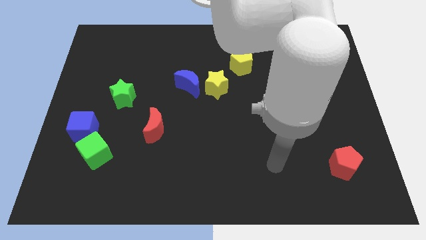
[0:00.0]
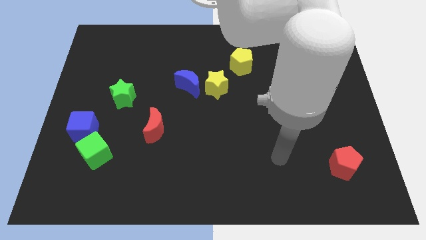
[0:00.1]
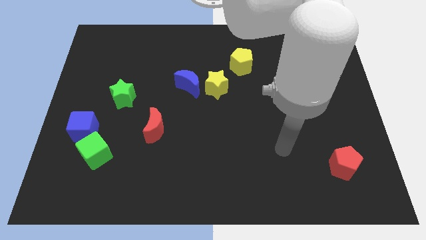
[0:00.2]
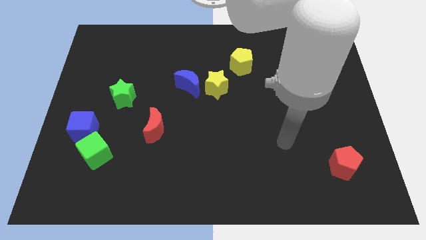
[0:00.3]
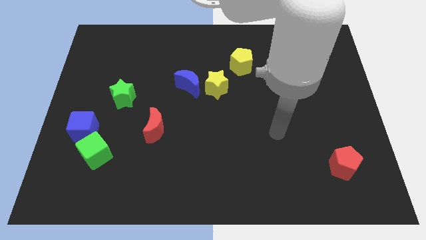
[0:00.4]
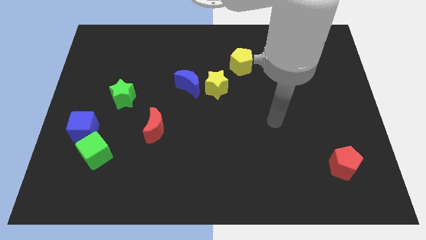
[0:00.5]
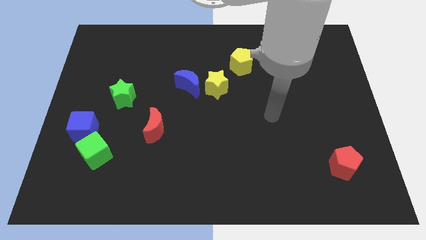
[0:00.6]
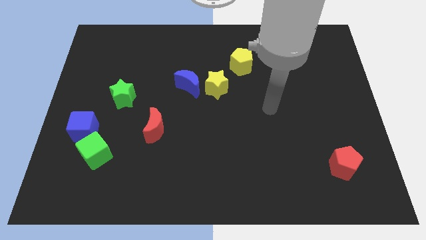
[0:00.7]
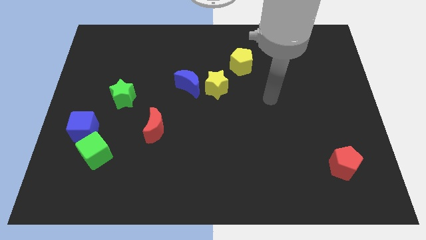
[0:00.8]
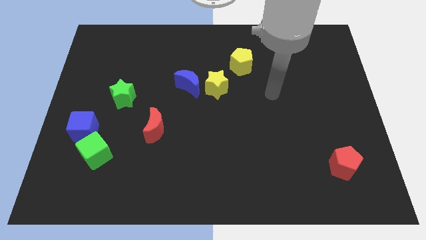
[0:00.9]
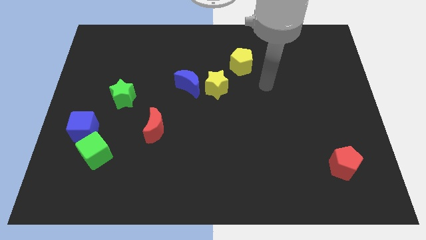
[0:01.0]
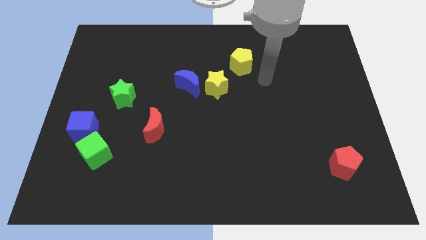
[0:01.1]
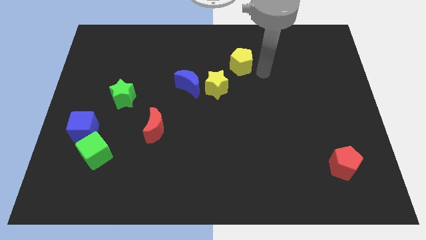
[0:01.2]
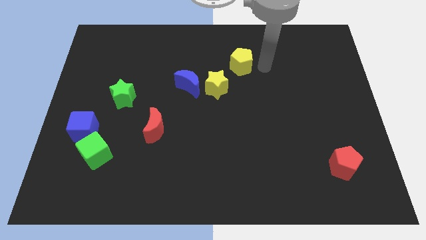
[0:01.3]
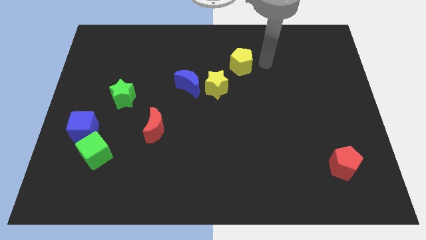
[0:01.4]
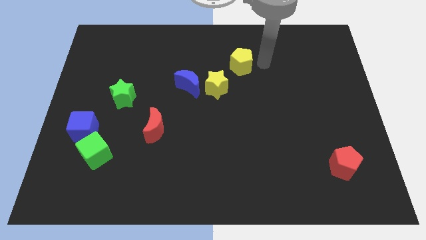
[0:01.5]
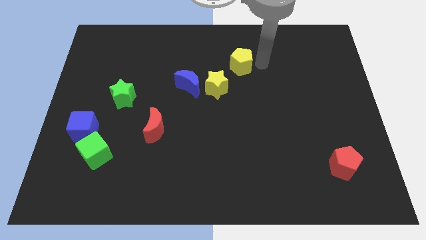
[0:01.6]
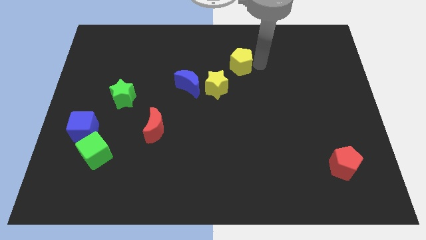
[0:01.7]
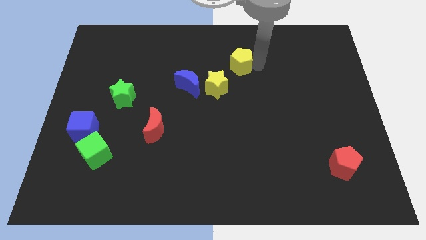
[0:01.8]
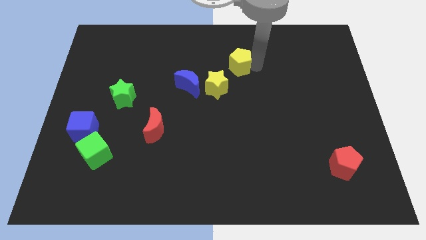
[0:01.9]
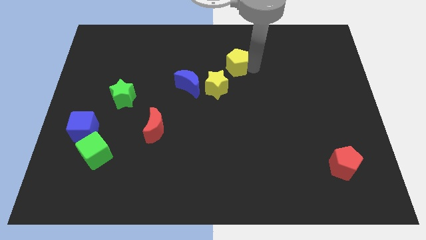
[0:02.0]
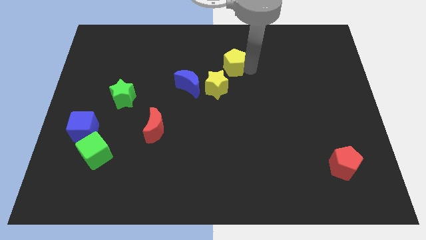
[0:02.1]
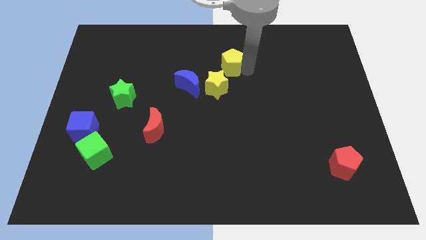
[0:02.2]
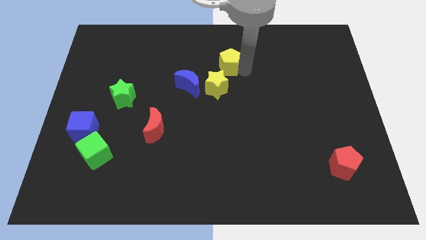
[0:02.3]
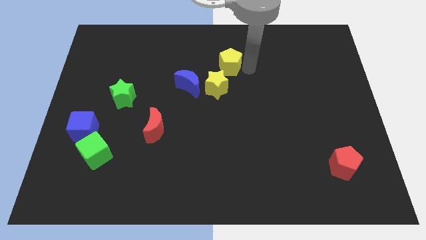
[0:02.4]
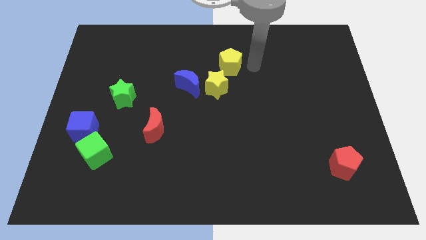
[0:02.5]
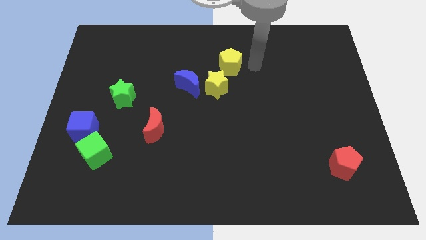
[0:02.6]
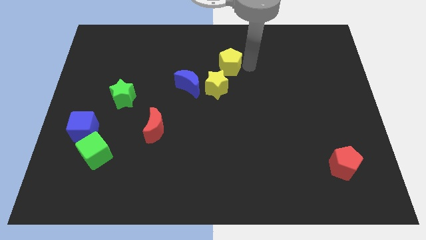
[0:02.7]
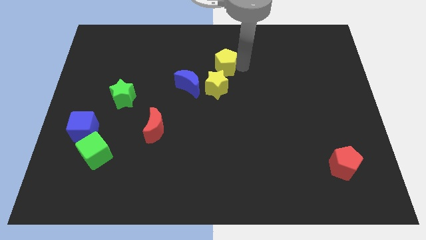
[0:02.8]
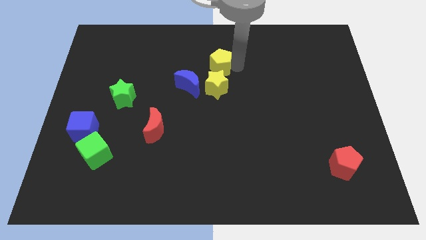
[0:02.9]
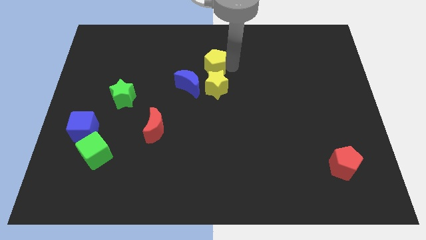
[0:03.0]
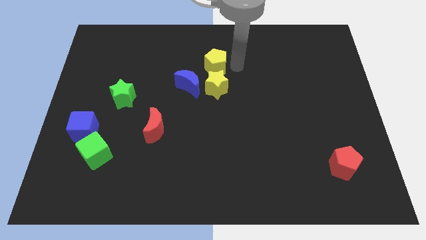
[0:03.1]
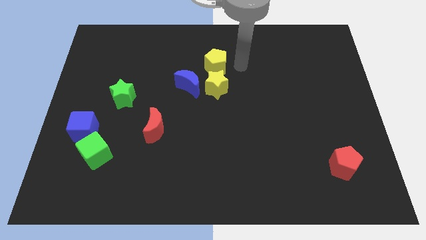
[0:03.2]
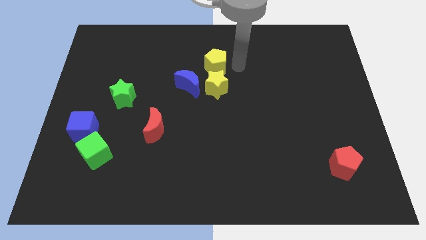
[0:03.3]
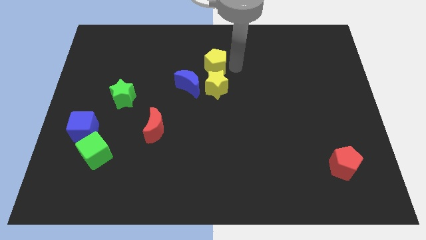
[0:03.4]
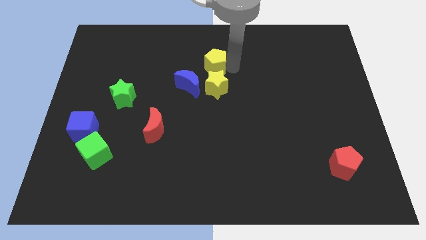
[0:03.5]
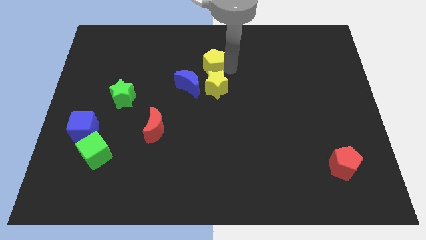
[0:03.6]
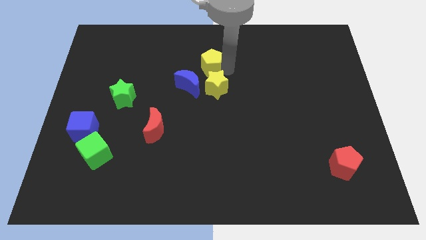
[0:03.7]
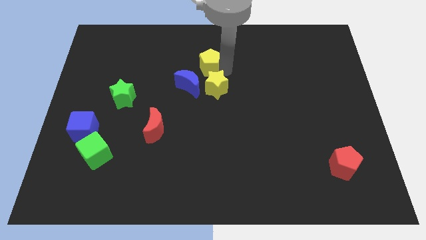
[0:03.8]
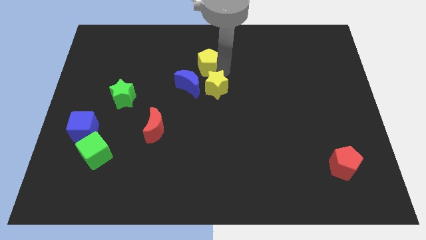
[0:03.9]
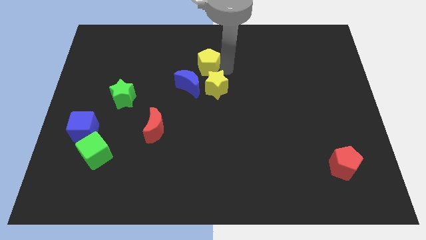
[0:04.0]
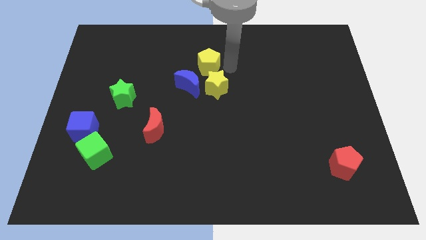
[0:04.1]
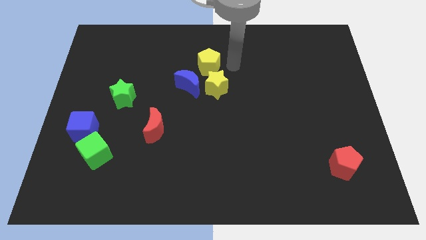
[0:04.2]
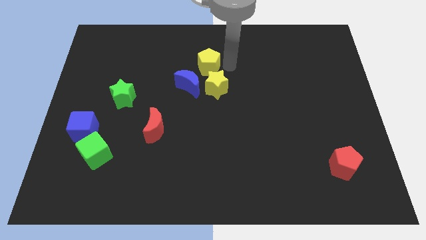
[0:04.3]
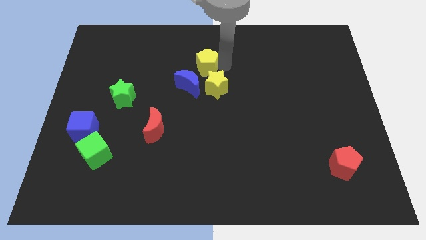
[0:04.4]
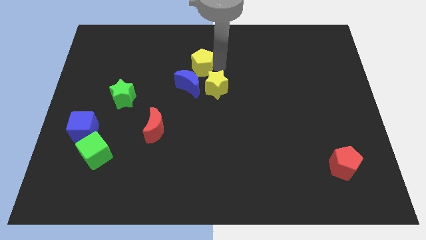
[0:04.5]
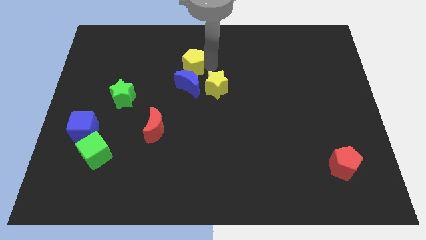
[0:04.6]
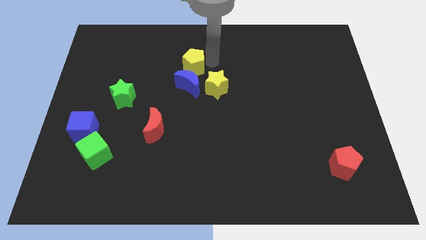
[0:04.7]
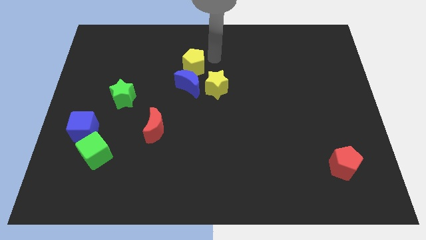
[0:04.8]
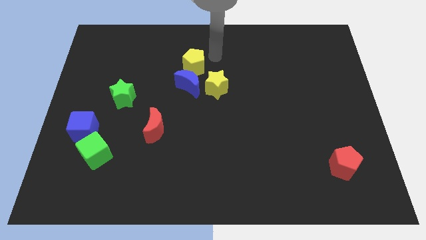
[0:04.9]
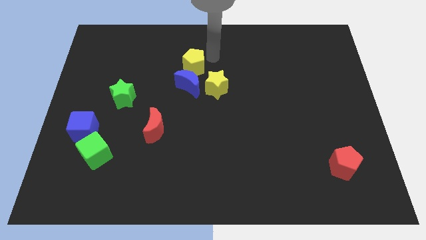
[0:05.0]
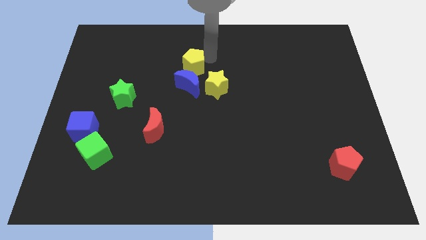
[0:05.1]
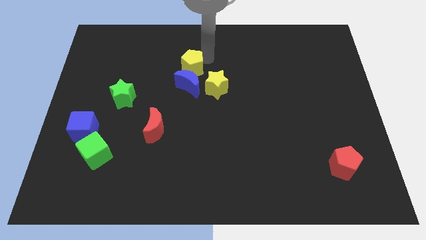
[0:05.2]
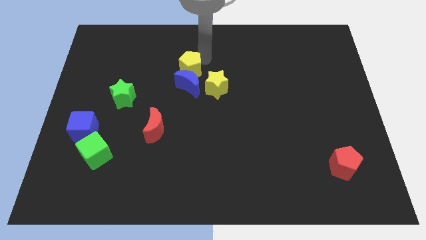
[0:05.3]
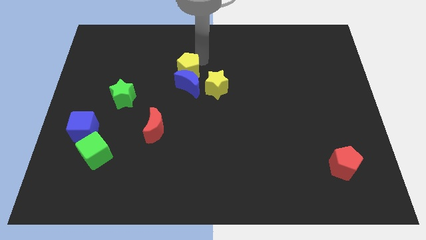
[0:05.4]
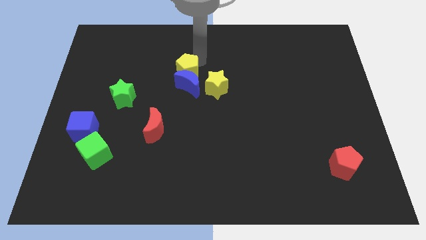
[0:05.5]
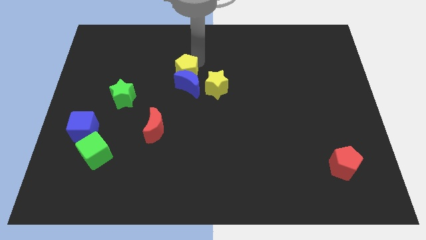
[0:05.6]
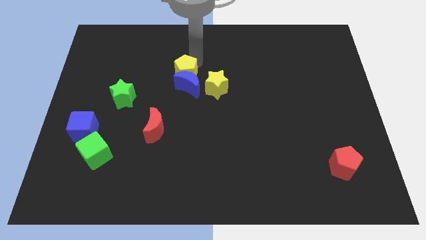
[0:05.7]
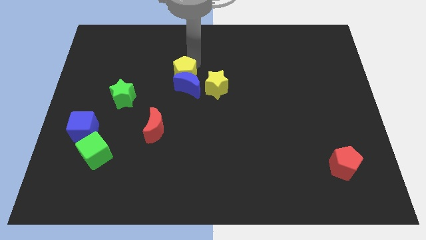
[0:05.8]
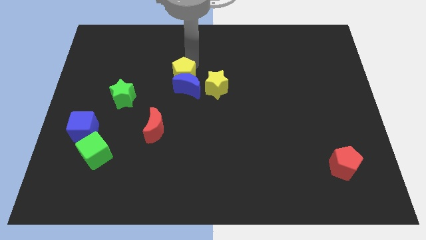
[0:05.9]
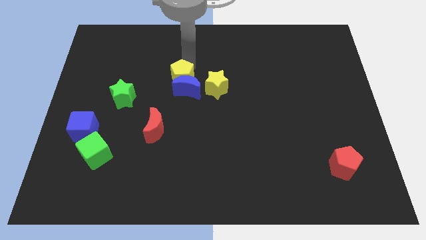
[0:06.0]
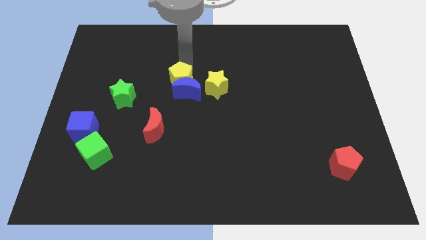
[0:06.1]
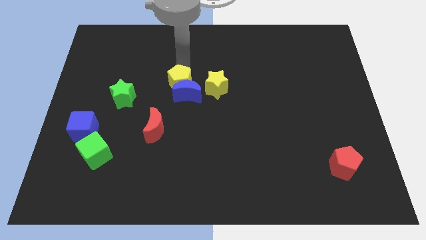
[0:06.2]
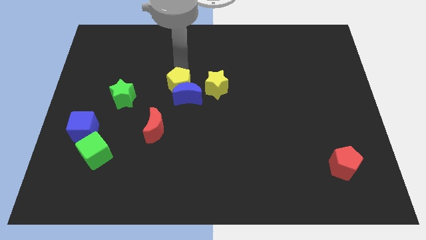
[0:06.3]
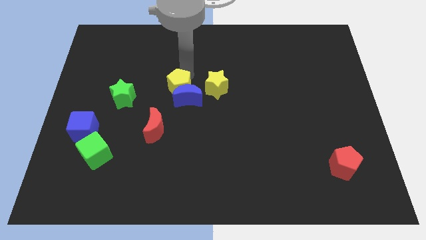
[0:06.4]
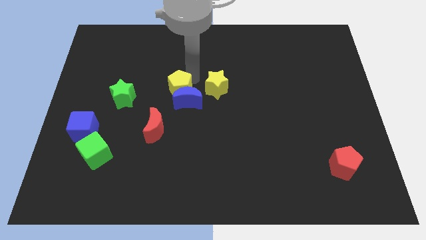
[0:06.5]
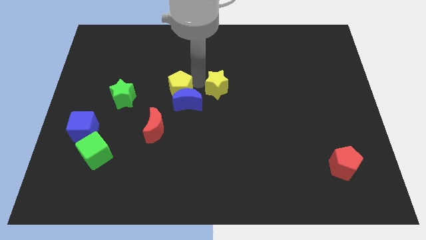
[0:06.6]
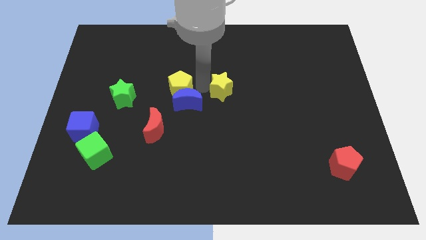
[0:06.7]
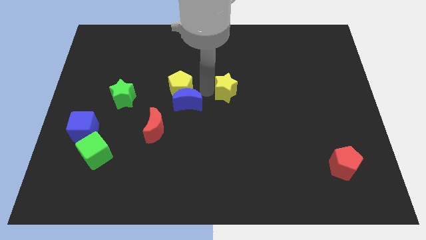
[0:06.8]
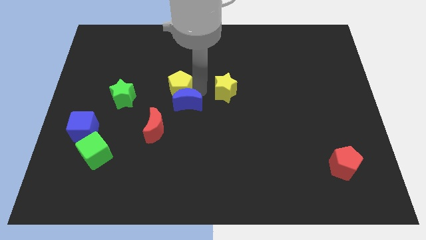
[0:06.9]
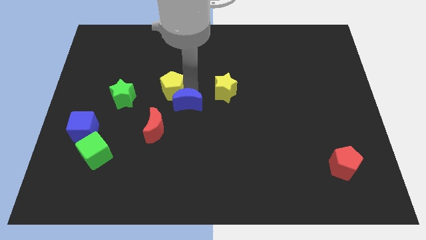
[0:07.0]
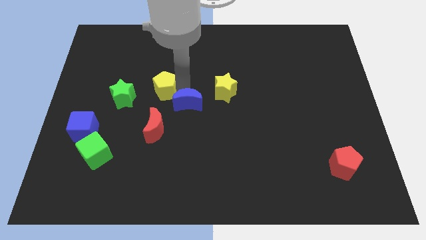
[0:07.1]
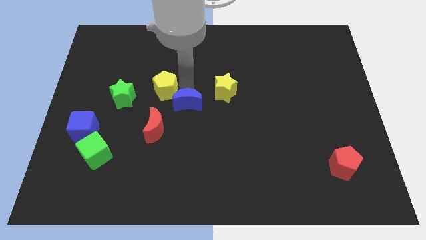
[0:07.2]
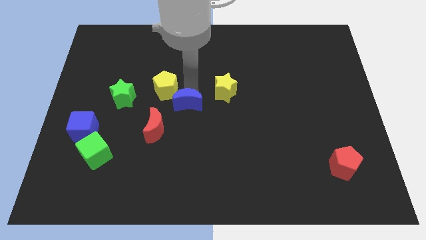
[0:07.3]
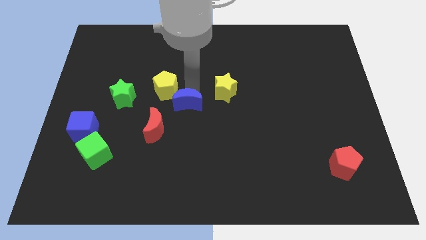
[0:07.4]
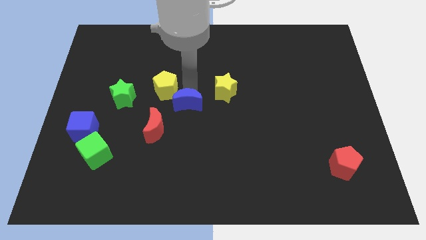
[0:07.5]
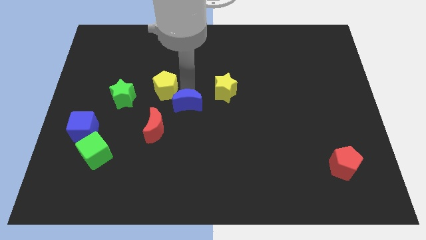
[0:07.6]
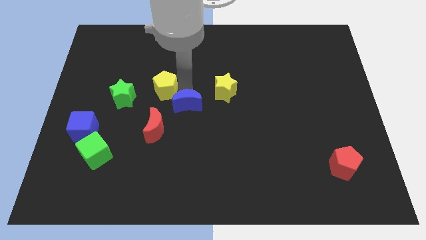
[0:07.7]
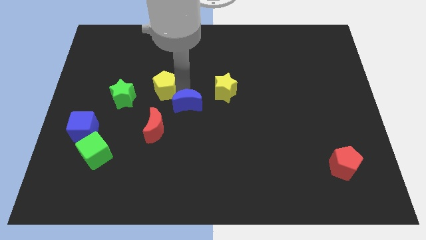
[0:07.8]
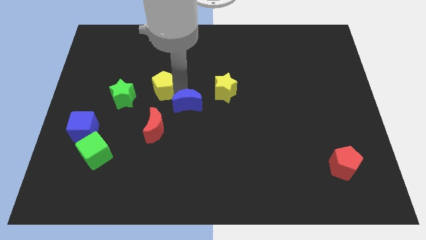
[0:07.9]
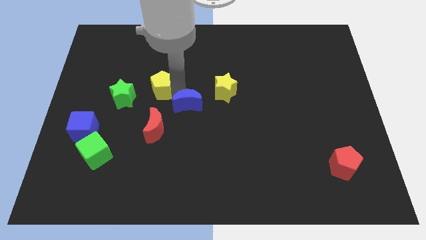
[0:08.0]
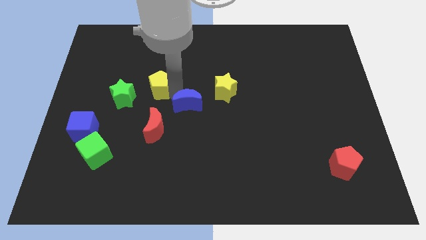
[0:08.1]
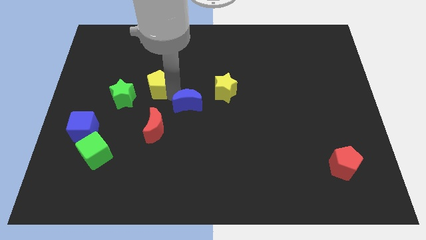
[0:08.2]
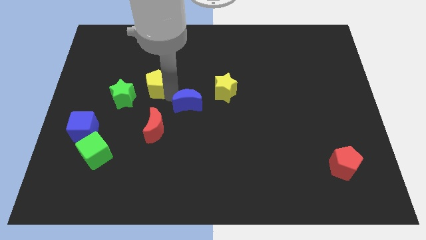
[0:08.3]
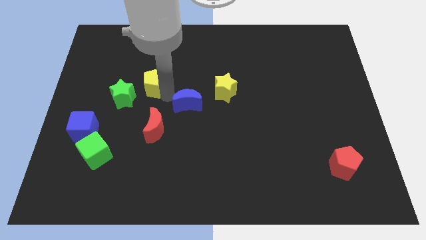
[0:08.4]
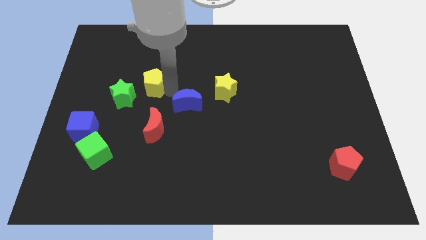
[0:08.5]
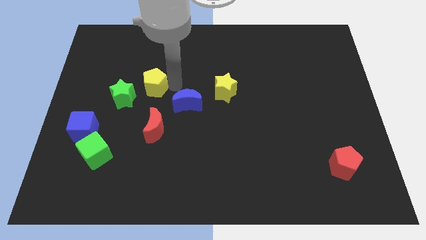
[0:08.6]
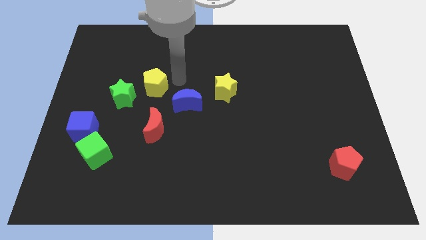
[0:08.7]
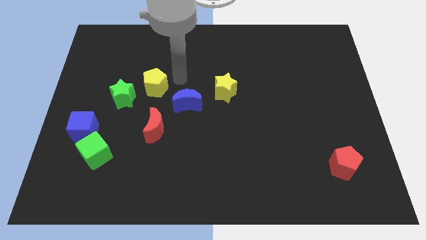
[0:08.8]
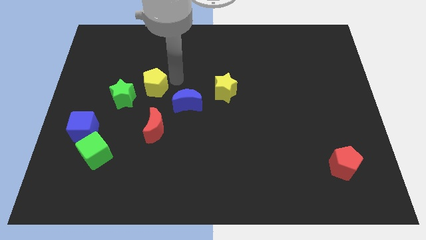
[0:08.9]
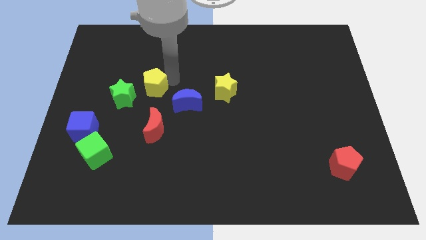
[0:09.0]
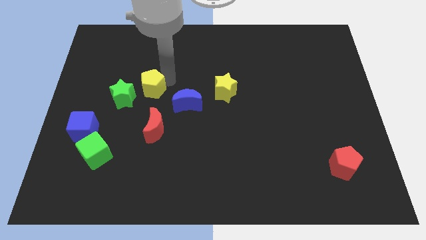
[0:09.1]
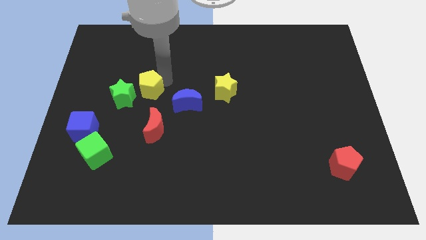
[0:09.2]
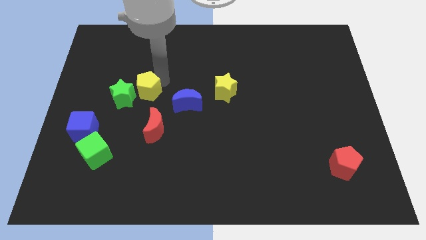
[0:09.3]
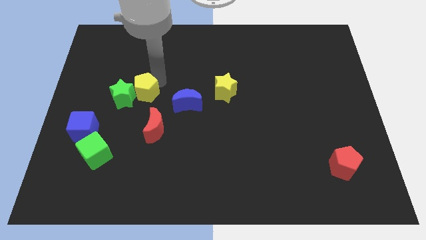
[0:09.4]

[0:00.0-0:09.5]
put the yellow pentagon next to the green star
